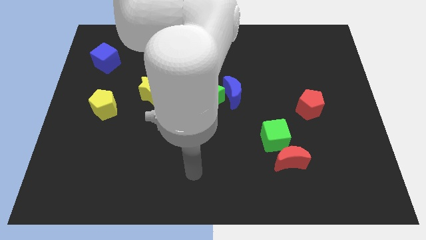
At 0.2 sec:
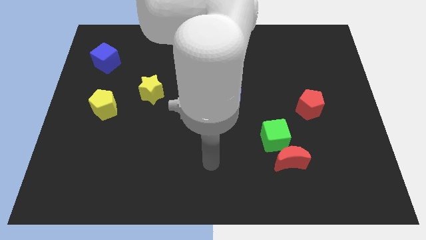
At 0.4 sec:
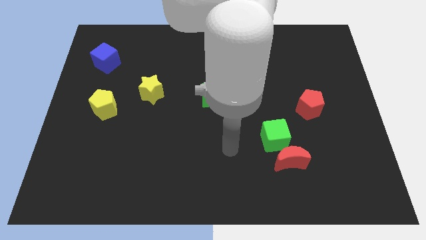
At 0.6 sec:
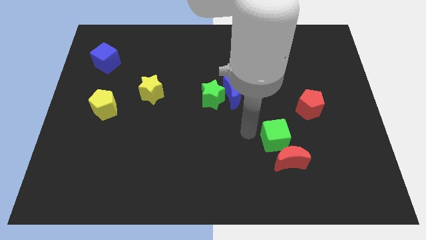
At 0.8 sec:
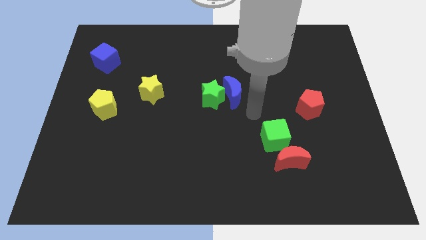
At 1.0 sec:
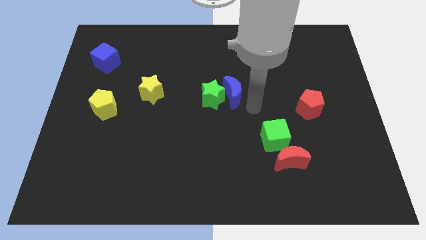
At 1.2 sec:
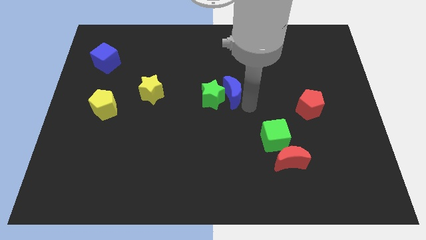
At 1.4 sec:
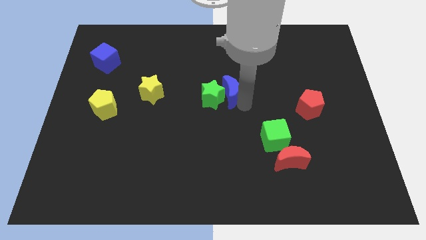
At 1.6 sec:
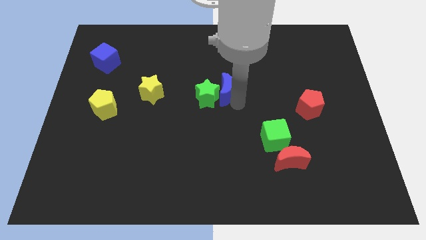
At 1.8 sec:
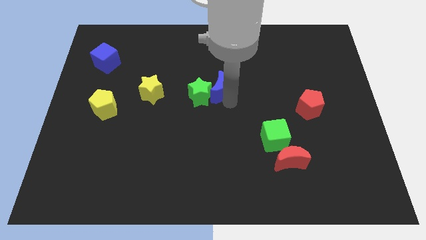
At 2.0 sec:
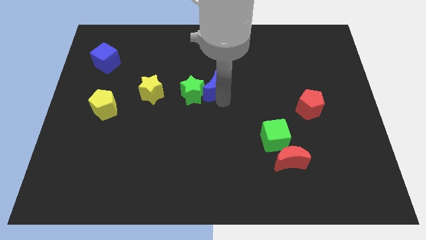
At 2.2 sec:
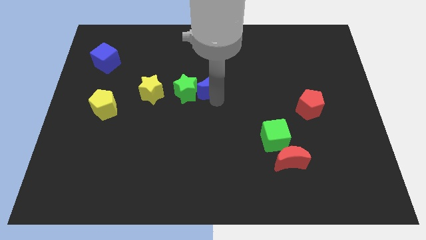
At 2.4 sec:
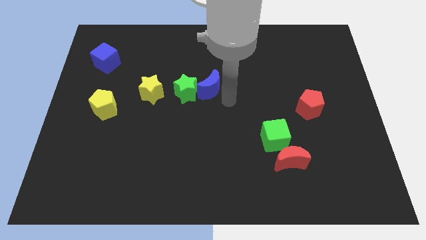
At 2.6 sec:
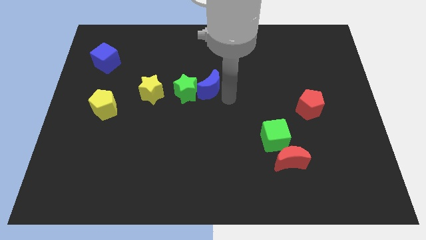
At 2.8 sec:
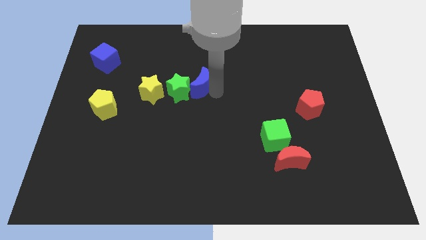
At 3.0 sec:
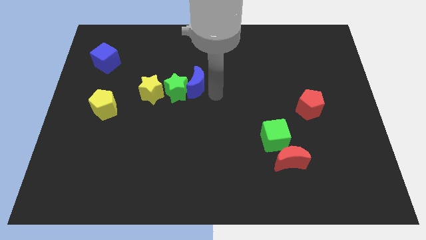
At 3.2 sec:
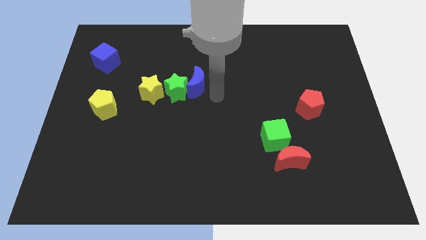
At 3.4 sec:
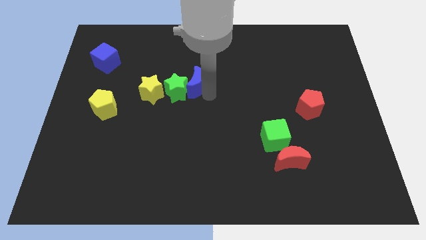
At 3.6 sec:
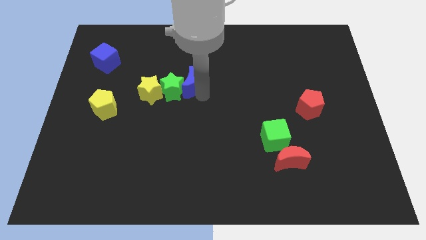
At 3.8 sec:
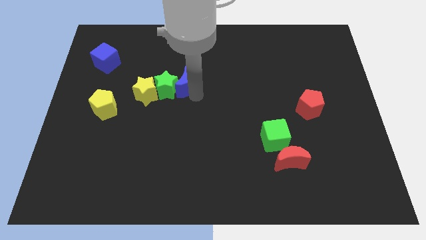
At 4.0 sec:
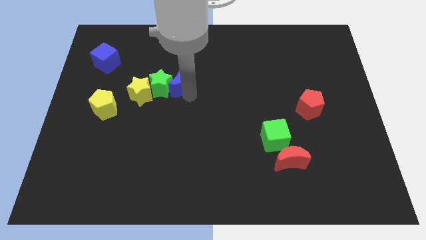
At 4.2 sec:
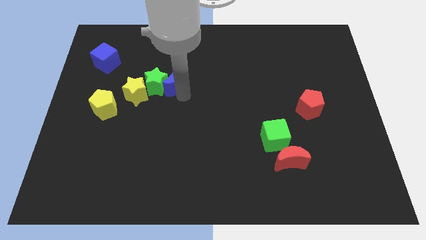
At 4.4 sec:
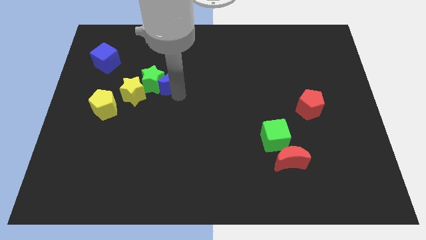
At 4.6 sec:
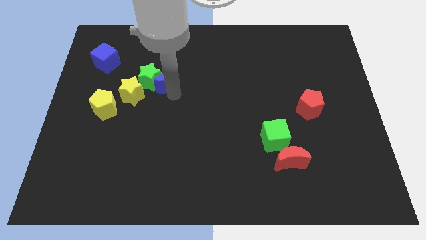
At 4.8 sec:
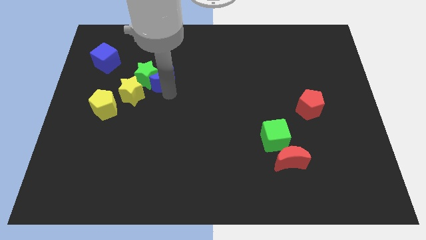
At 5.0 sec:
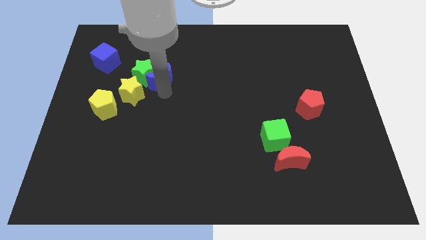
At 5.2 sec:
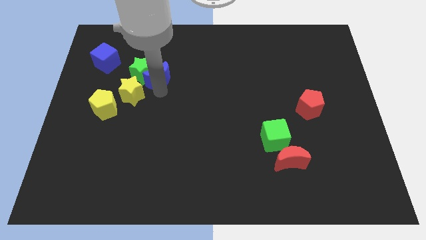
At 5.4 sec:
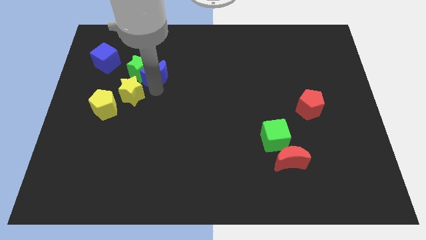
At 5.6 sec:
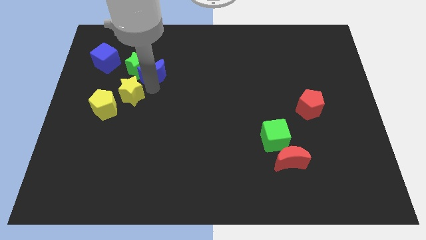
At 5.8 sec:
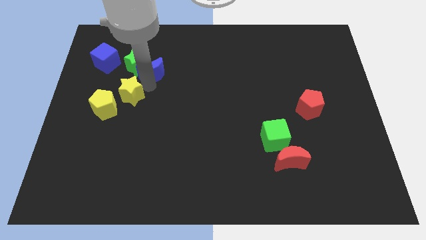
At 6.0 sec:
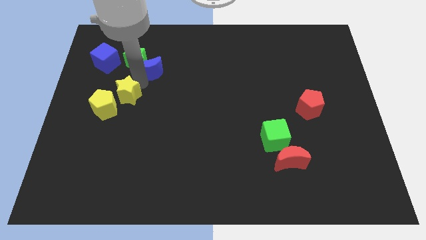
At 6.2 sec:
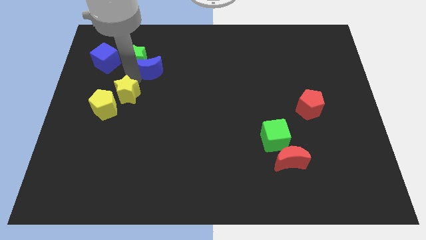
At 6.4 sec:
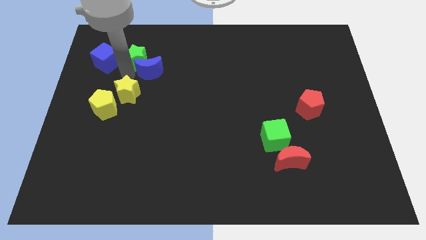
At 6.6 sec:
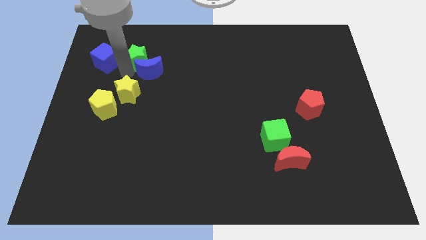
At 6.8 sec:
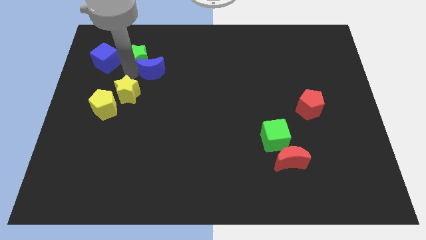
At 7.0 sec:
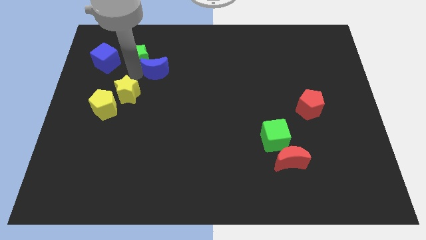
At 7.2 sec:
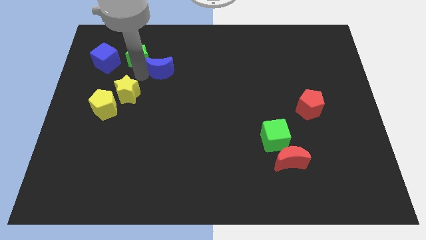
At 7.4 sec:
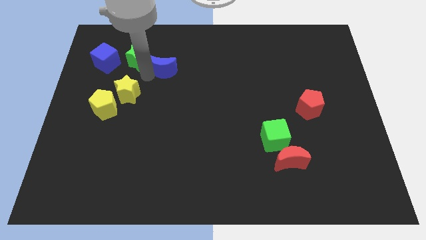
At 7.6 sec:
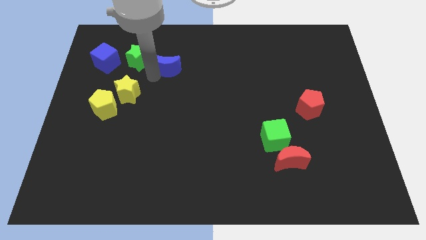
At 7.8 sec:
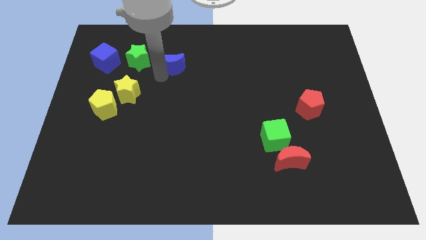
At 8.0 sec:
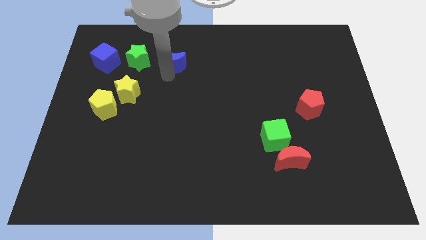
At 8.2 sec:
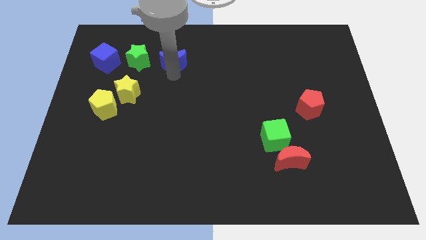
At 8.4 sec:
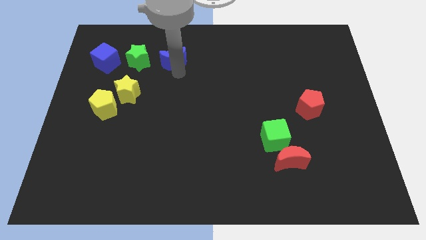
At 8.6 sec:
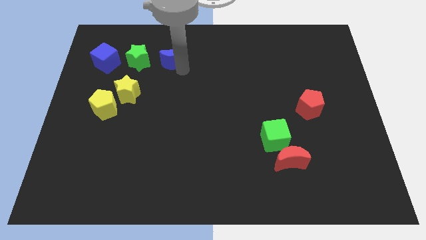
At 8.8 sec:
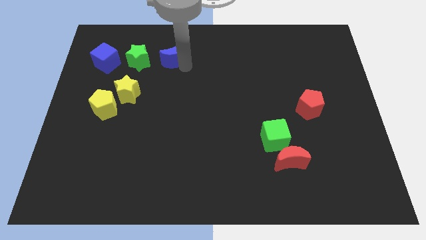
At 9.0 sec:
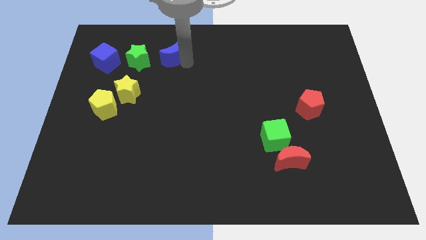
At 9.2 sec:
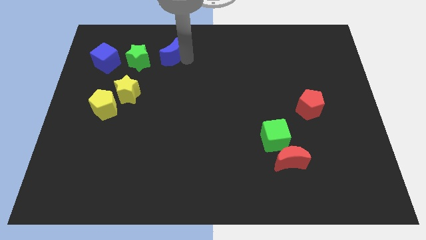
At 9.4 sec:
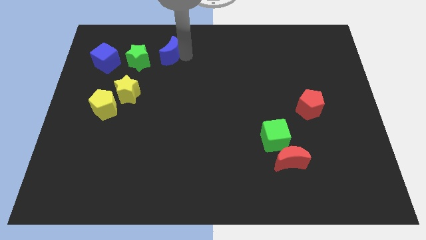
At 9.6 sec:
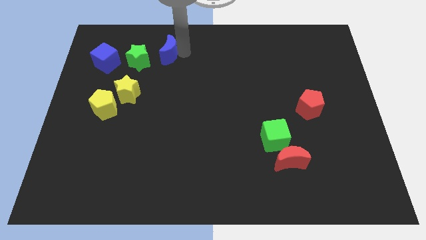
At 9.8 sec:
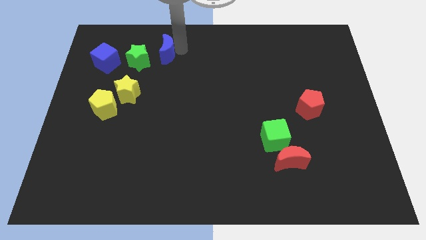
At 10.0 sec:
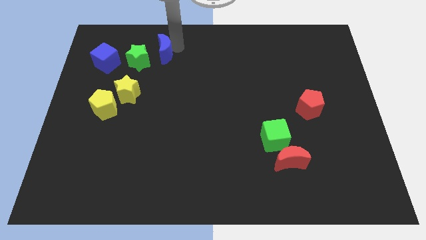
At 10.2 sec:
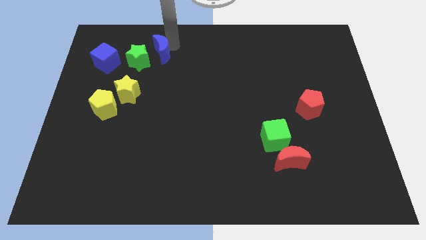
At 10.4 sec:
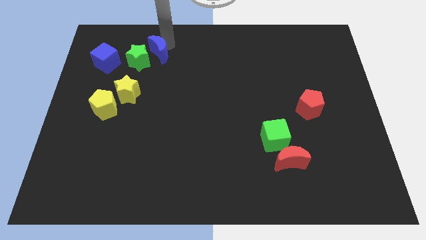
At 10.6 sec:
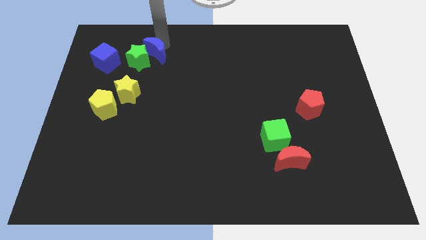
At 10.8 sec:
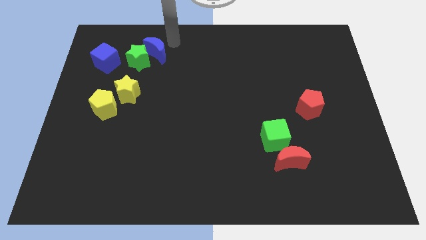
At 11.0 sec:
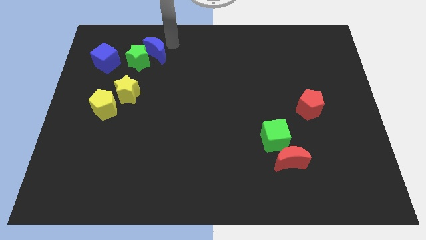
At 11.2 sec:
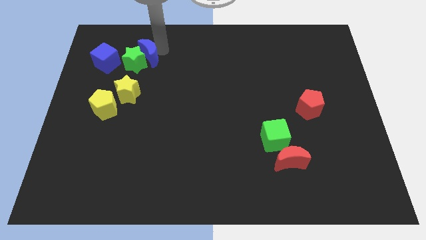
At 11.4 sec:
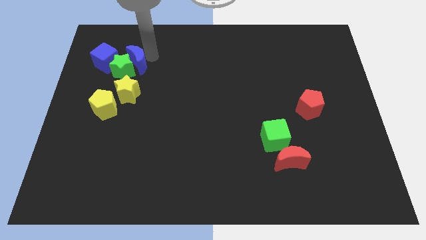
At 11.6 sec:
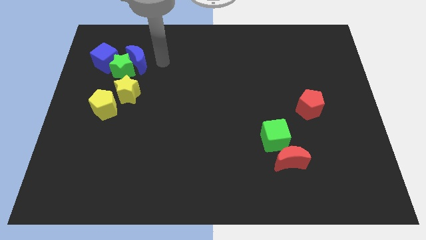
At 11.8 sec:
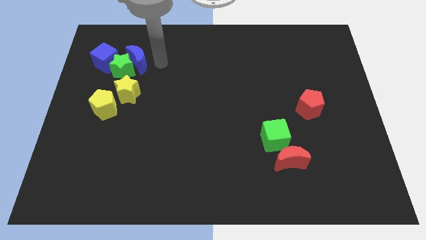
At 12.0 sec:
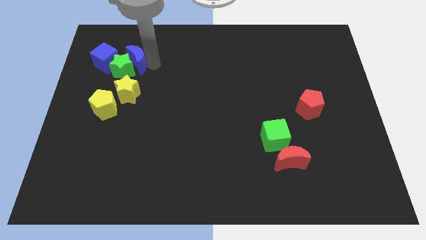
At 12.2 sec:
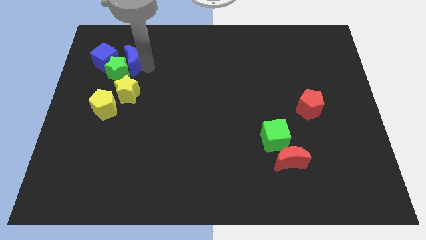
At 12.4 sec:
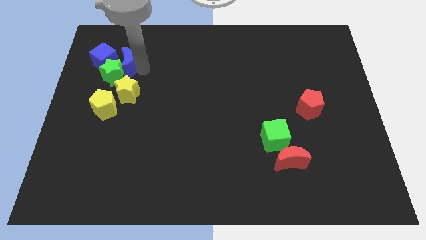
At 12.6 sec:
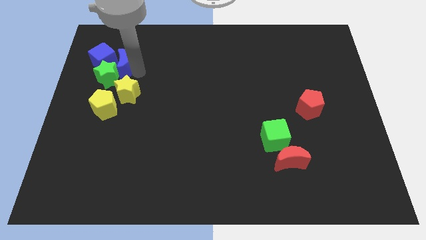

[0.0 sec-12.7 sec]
put the blue moon close to the blue cube

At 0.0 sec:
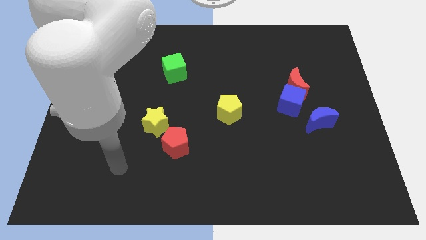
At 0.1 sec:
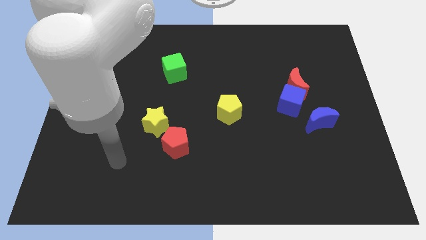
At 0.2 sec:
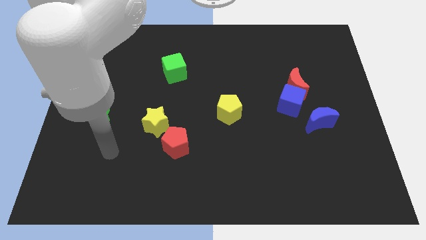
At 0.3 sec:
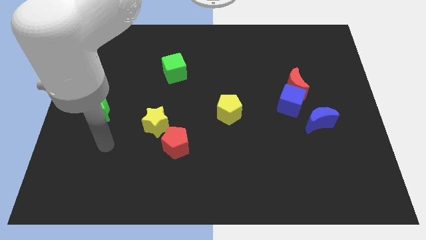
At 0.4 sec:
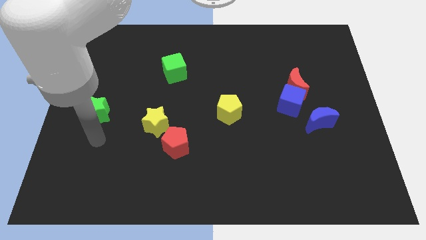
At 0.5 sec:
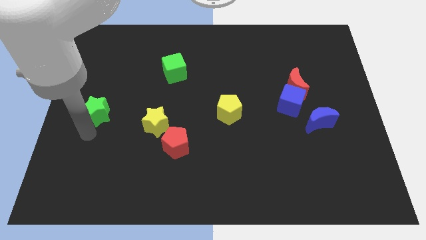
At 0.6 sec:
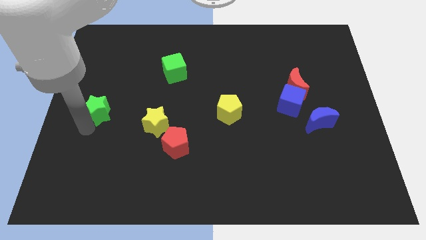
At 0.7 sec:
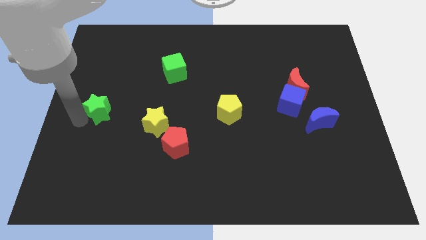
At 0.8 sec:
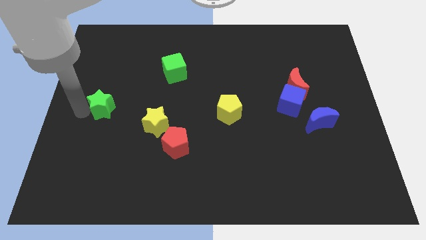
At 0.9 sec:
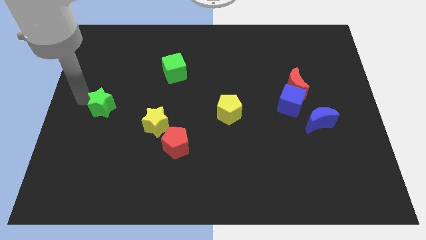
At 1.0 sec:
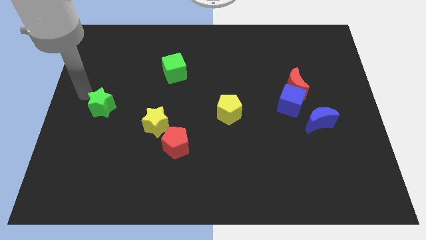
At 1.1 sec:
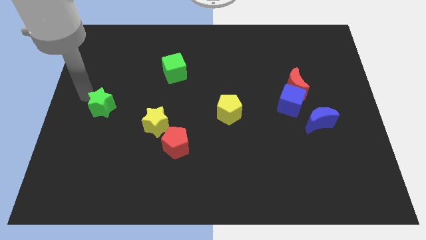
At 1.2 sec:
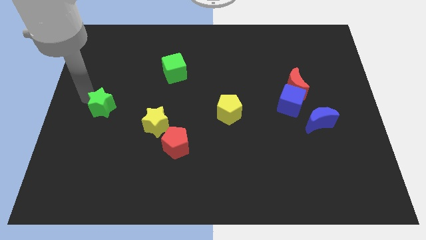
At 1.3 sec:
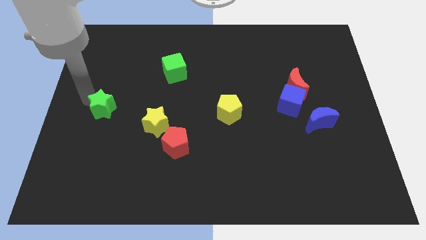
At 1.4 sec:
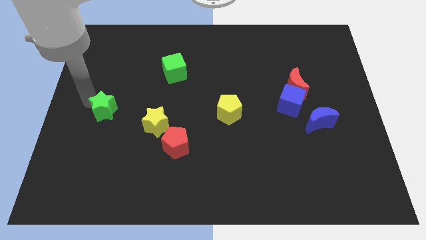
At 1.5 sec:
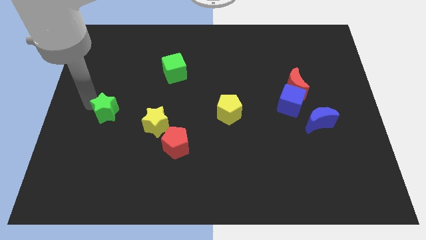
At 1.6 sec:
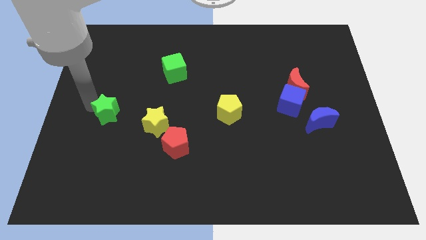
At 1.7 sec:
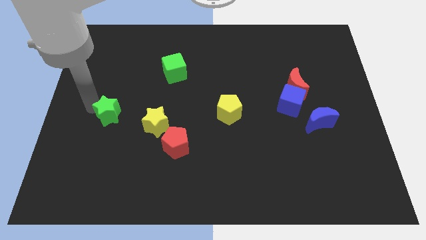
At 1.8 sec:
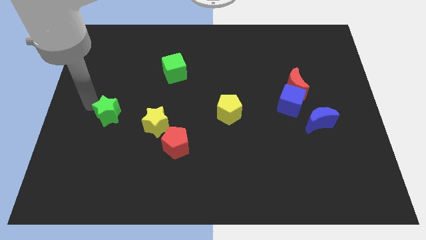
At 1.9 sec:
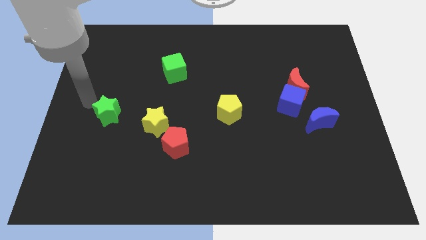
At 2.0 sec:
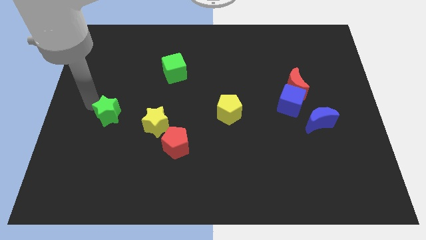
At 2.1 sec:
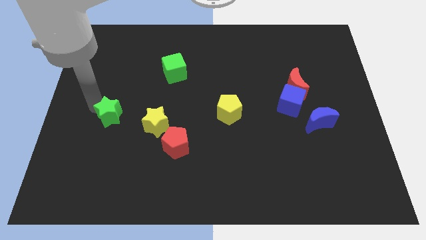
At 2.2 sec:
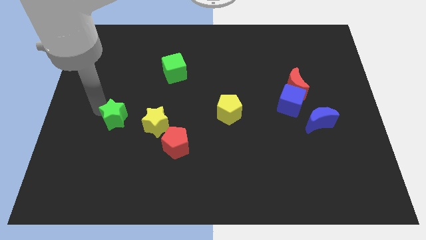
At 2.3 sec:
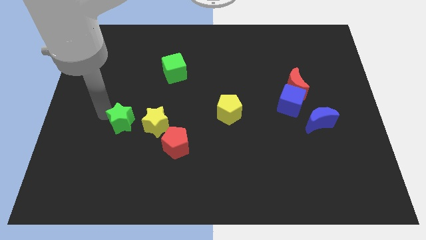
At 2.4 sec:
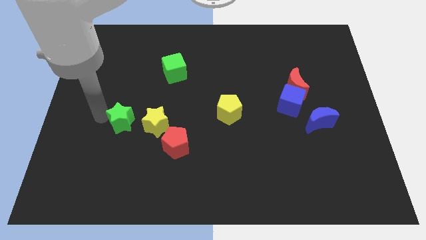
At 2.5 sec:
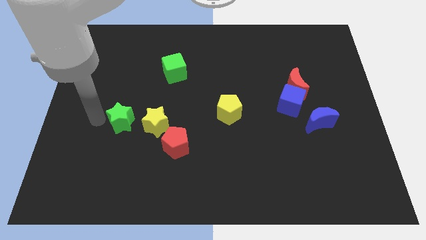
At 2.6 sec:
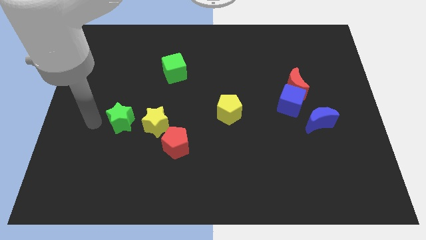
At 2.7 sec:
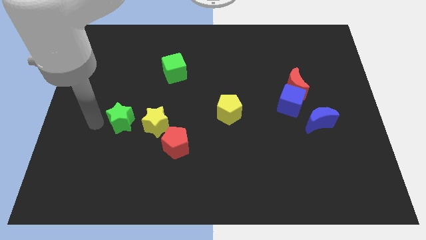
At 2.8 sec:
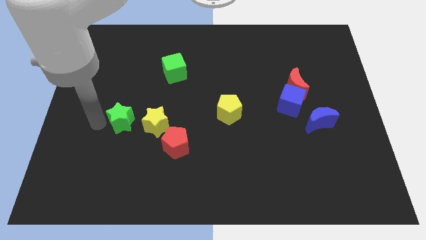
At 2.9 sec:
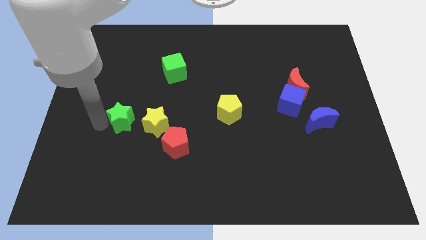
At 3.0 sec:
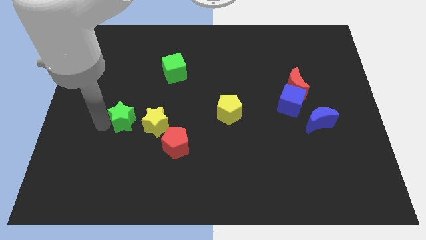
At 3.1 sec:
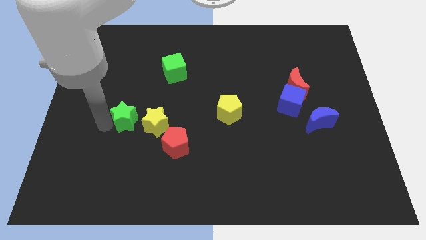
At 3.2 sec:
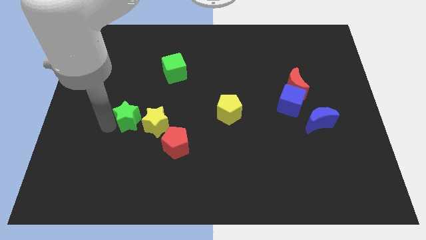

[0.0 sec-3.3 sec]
push the green star towards the yellow star
